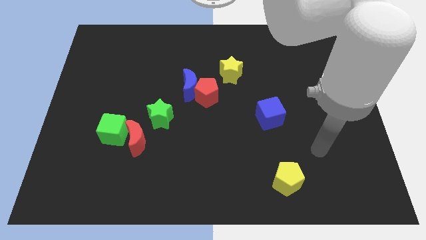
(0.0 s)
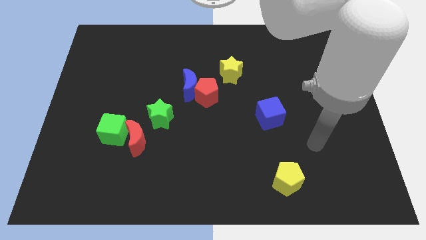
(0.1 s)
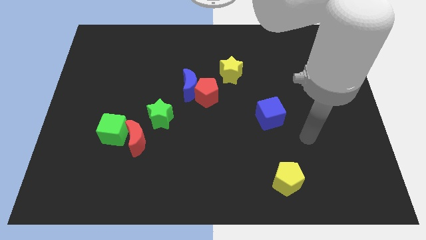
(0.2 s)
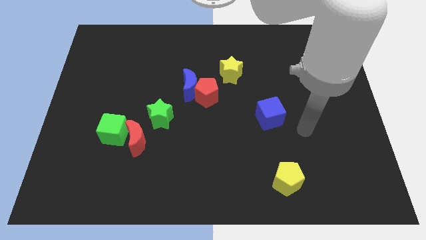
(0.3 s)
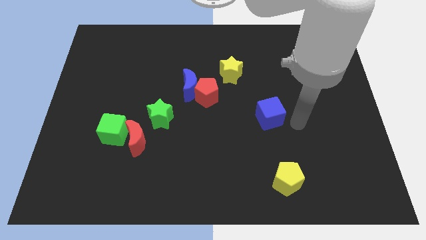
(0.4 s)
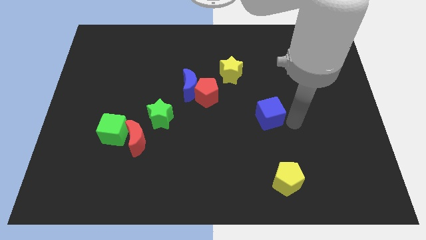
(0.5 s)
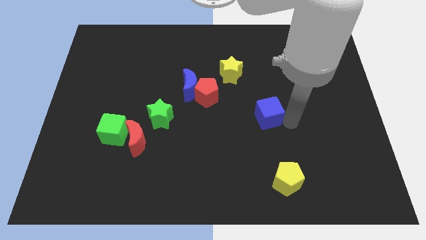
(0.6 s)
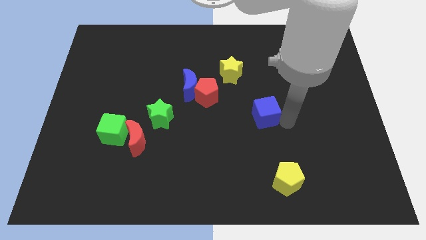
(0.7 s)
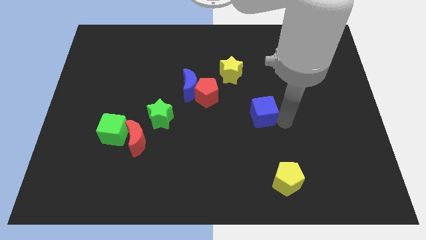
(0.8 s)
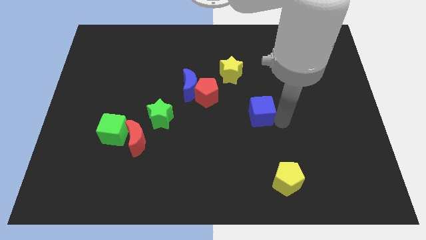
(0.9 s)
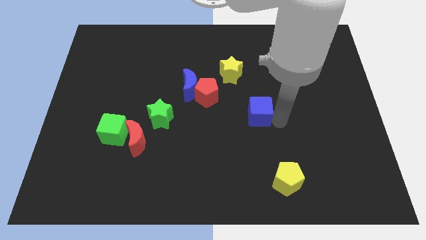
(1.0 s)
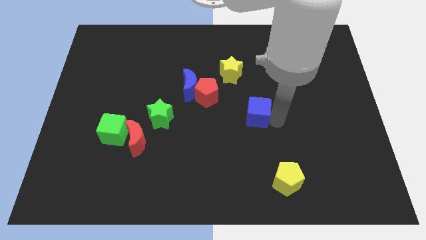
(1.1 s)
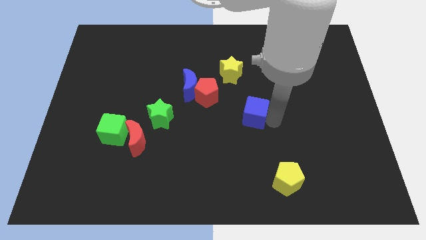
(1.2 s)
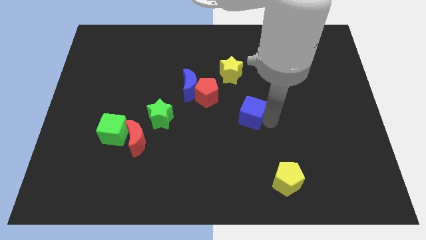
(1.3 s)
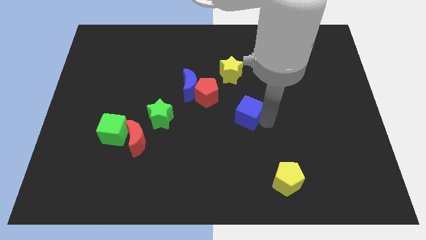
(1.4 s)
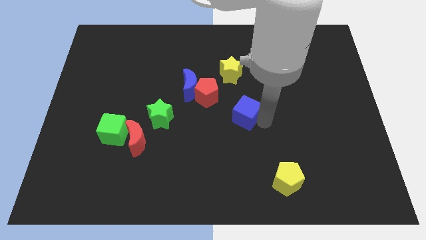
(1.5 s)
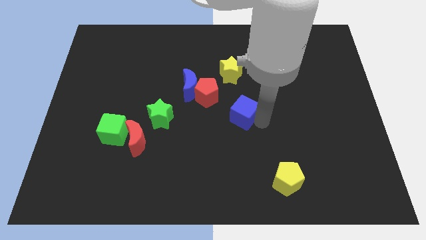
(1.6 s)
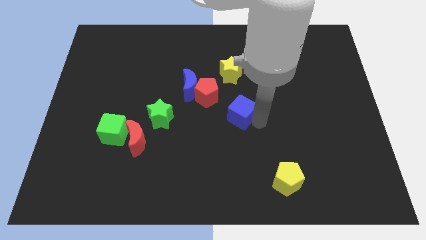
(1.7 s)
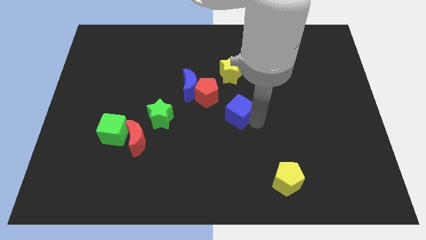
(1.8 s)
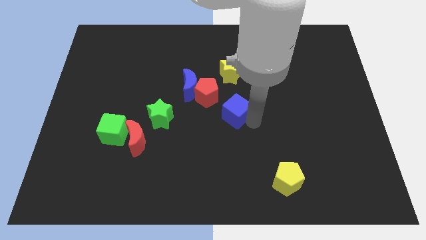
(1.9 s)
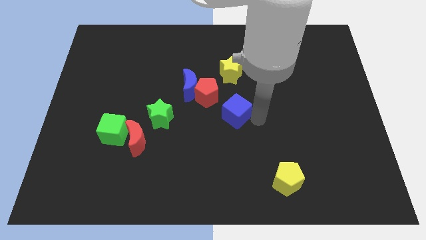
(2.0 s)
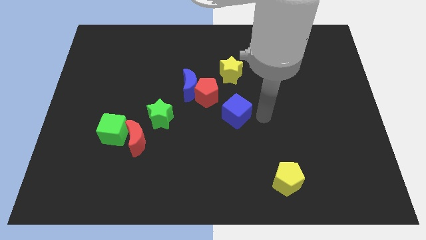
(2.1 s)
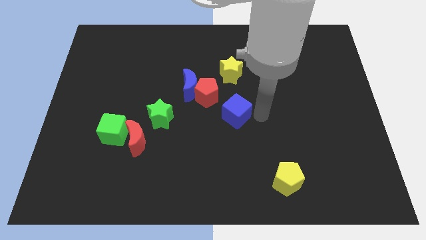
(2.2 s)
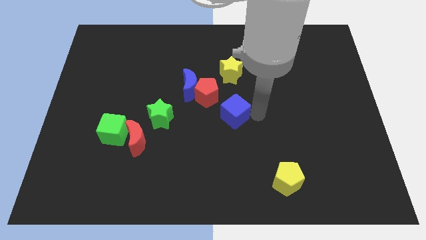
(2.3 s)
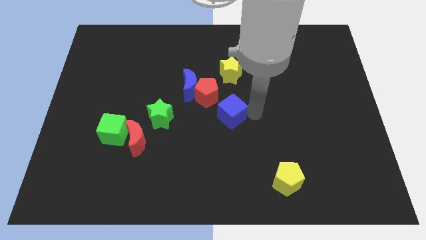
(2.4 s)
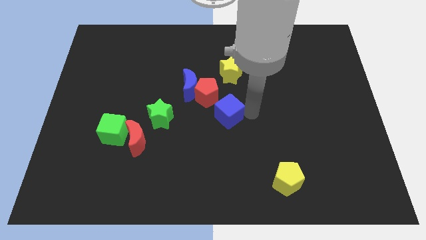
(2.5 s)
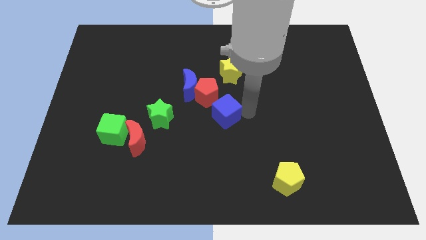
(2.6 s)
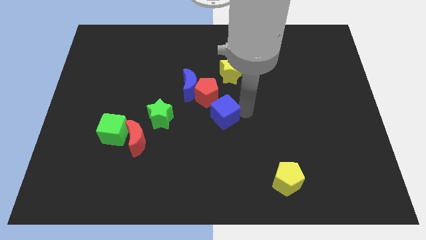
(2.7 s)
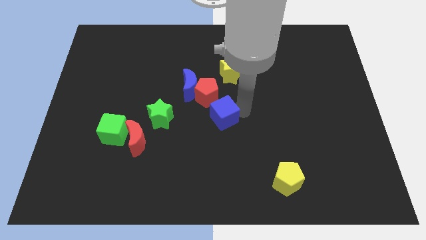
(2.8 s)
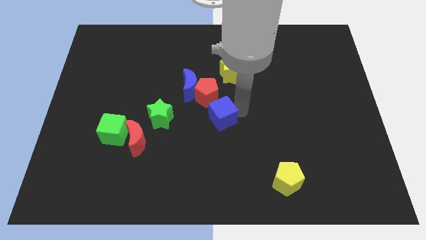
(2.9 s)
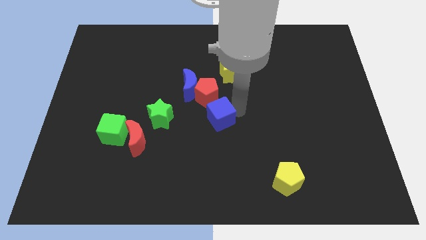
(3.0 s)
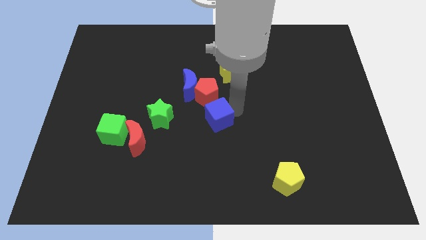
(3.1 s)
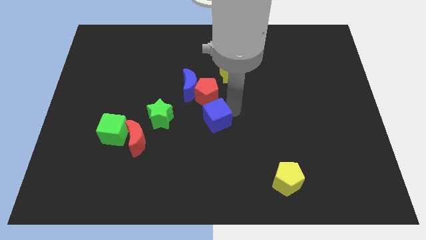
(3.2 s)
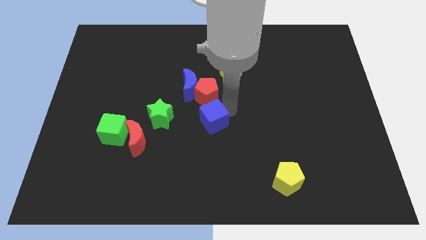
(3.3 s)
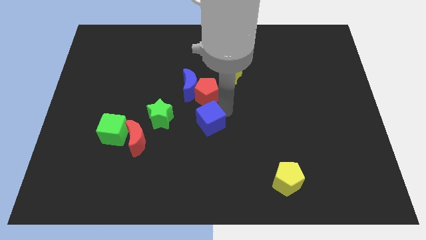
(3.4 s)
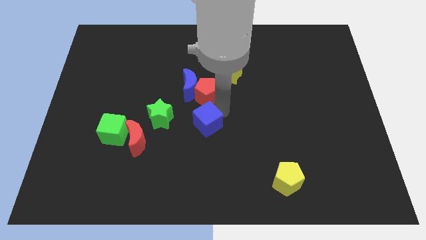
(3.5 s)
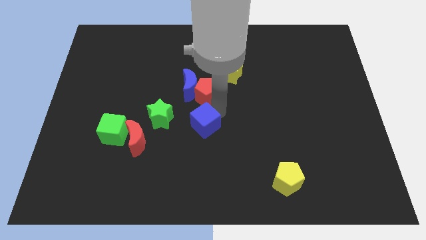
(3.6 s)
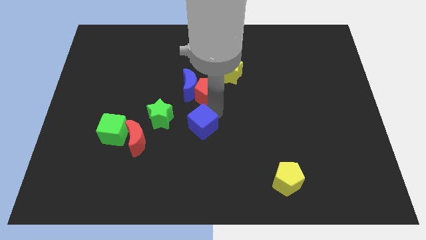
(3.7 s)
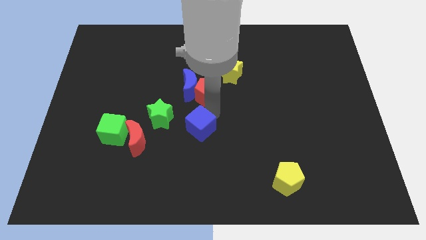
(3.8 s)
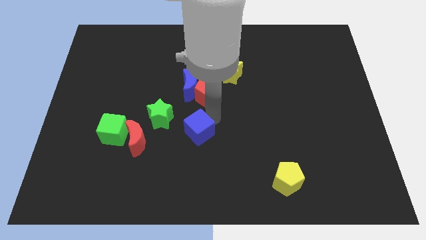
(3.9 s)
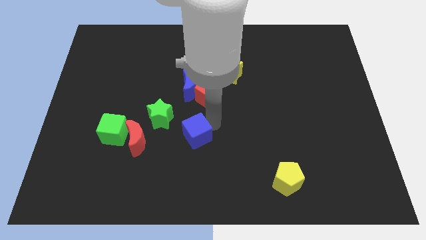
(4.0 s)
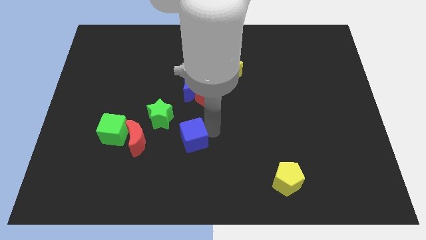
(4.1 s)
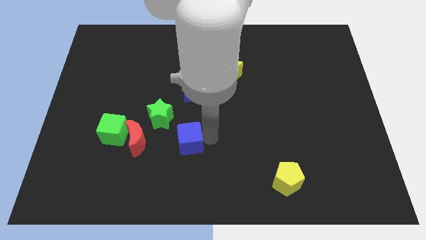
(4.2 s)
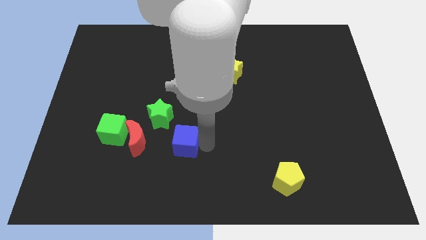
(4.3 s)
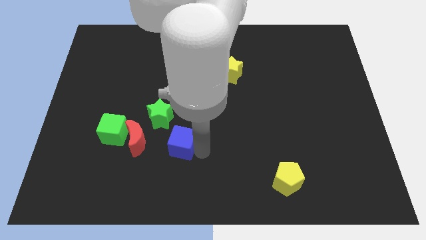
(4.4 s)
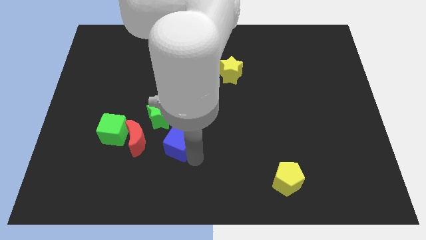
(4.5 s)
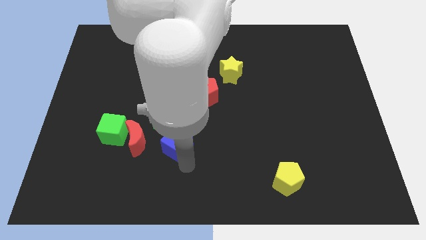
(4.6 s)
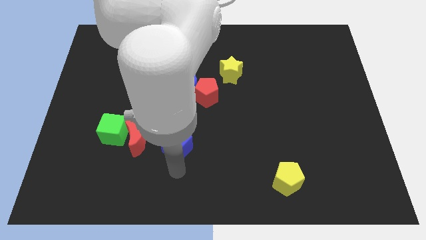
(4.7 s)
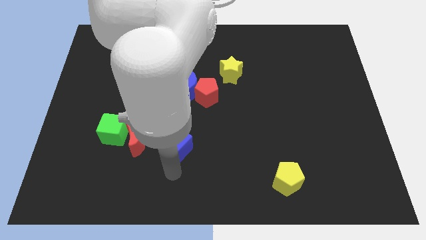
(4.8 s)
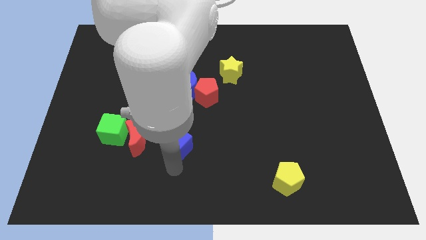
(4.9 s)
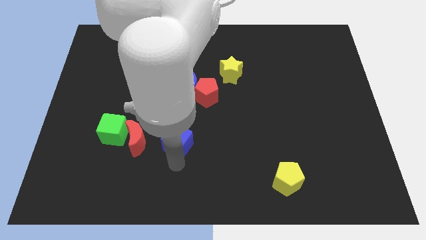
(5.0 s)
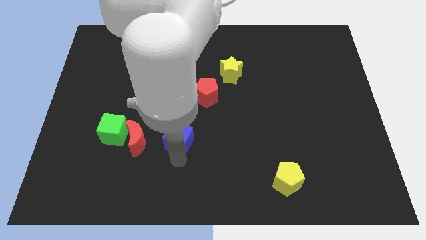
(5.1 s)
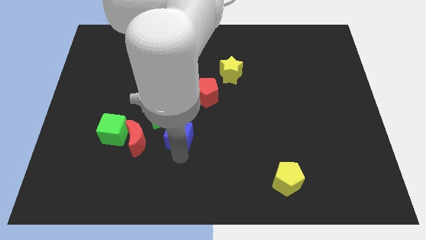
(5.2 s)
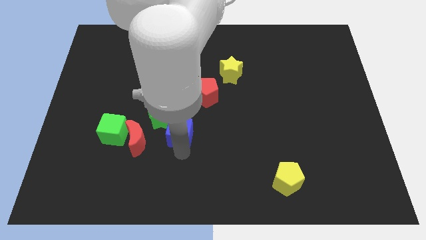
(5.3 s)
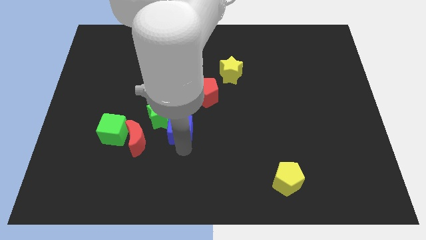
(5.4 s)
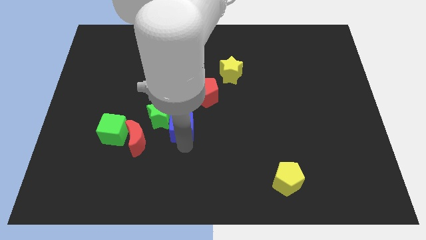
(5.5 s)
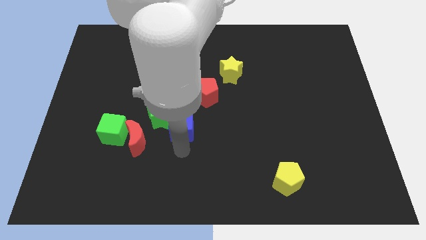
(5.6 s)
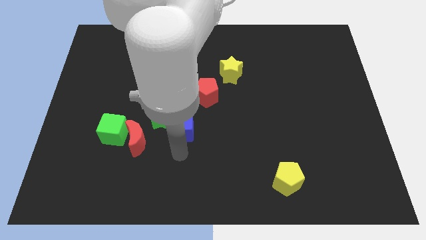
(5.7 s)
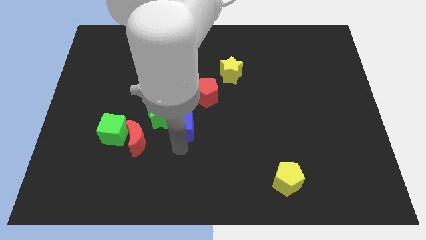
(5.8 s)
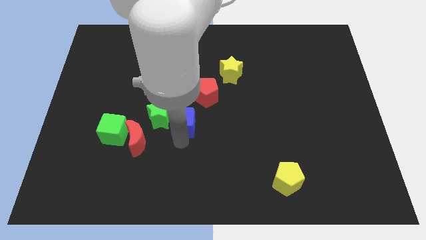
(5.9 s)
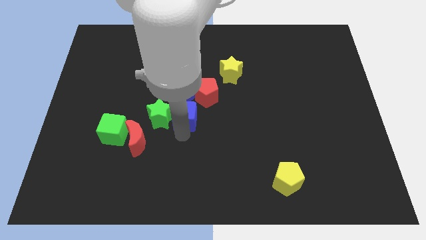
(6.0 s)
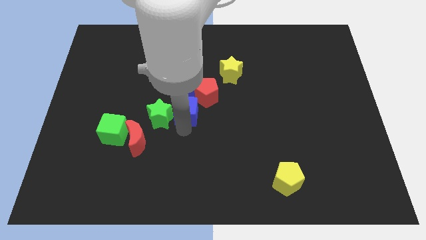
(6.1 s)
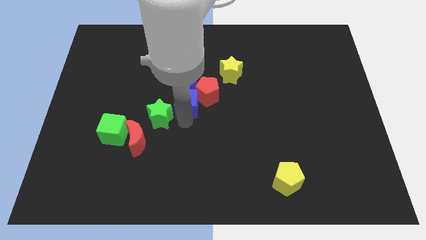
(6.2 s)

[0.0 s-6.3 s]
move the blue cube towards the blue moon

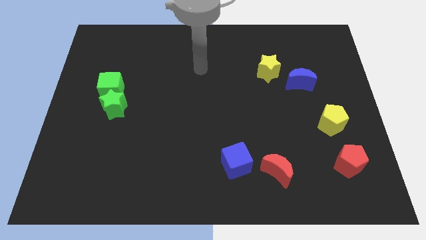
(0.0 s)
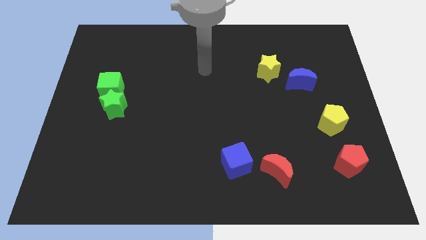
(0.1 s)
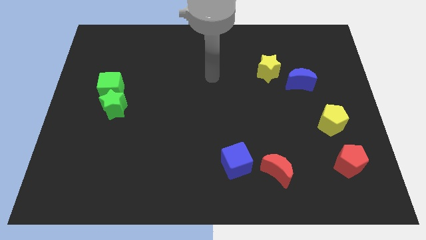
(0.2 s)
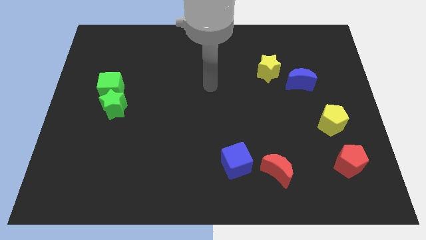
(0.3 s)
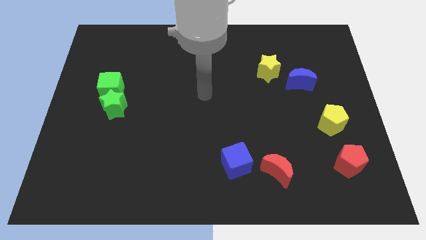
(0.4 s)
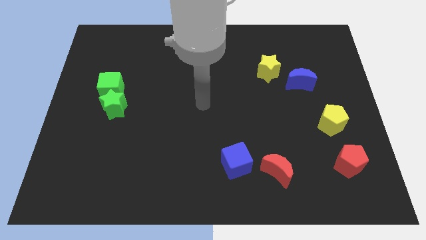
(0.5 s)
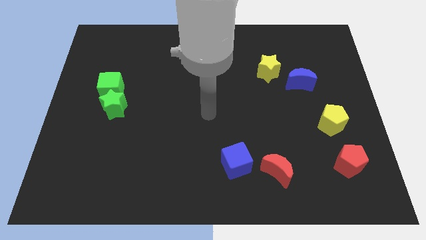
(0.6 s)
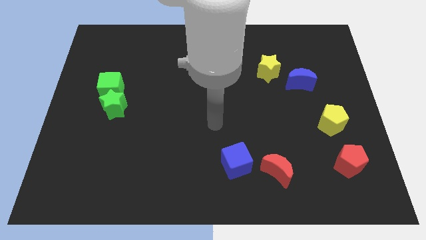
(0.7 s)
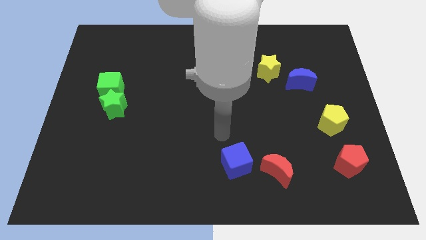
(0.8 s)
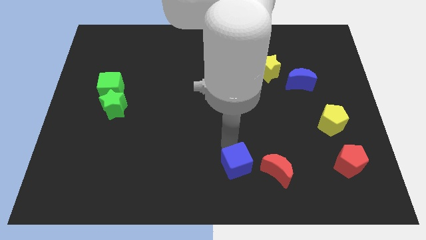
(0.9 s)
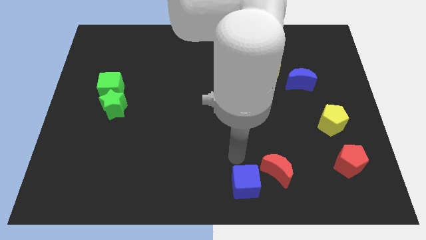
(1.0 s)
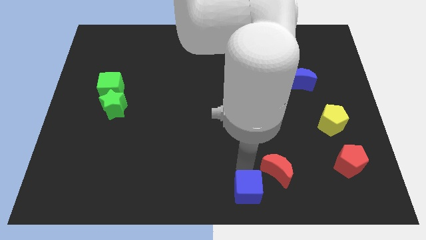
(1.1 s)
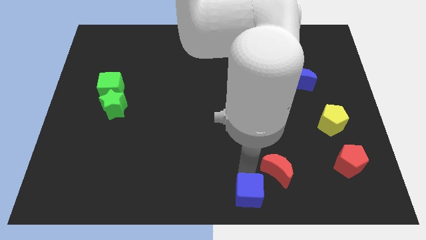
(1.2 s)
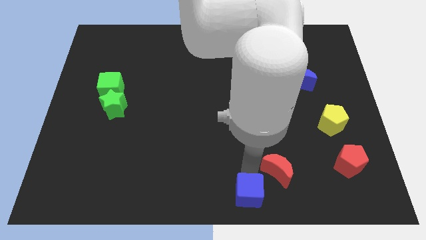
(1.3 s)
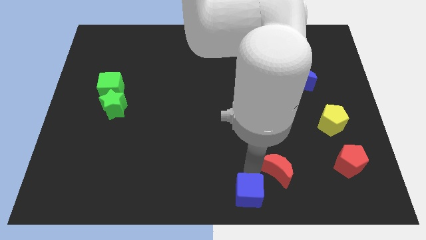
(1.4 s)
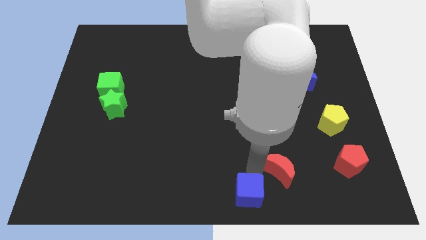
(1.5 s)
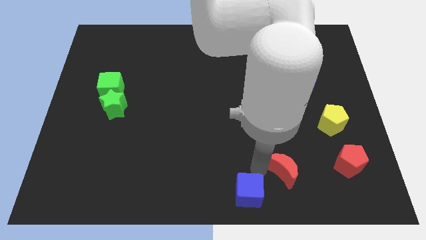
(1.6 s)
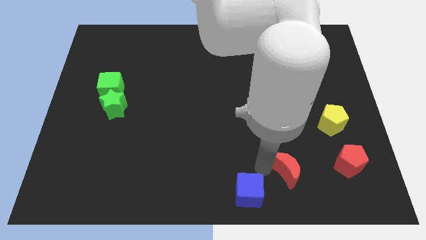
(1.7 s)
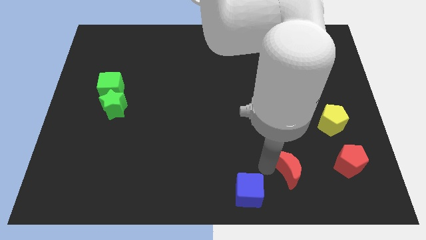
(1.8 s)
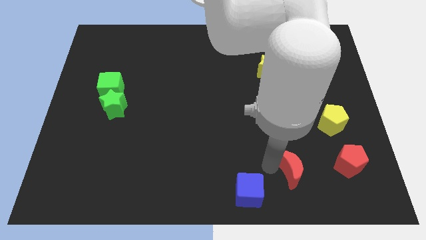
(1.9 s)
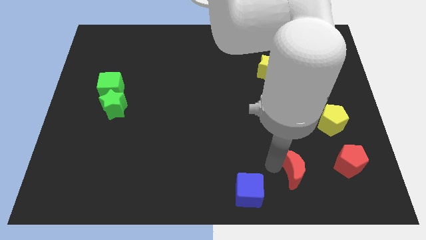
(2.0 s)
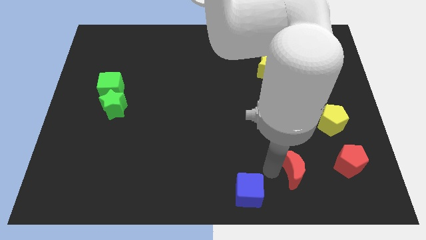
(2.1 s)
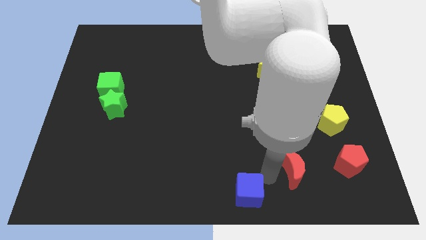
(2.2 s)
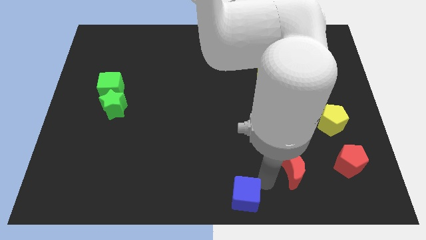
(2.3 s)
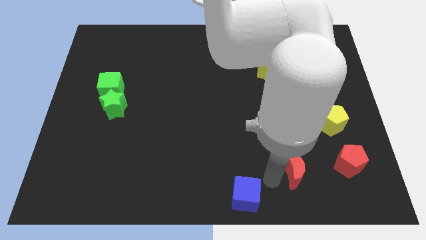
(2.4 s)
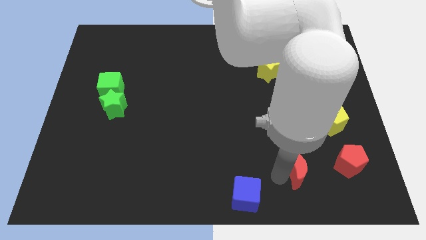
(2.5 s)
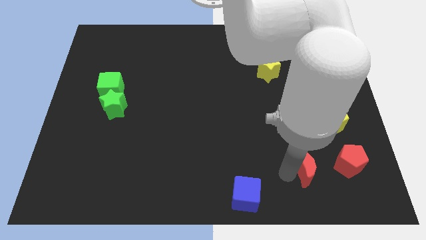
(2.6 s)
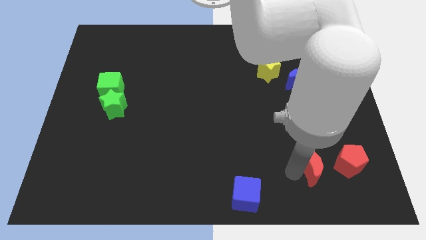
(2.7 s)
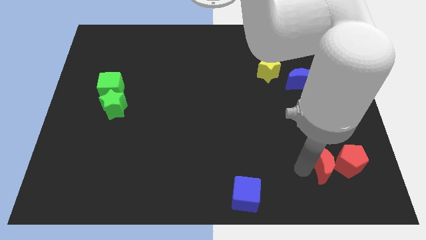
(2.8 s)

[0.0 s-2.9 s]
push the red moon next to the red pentagon
